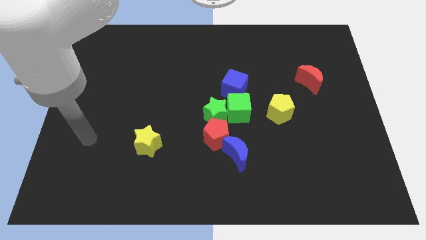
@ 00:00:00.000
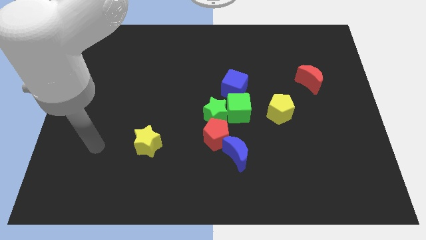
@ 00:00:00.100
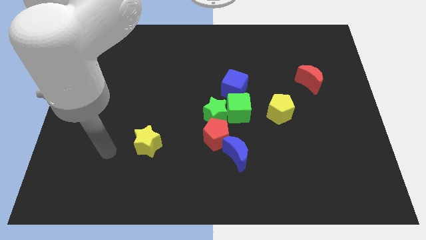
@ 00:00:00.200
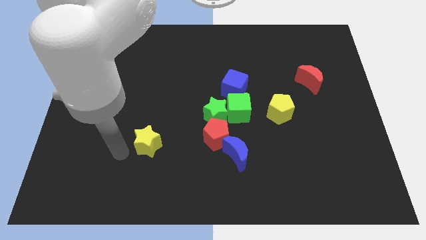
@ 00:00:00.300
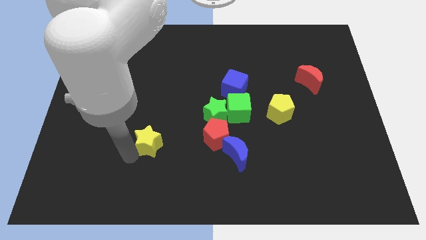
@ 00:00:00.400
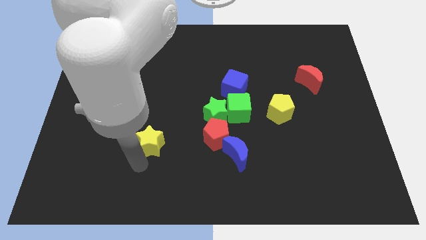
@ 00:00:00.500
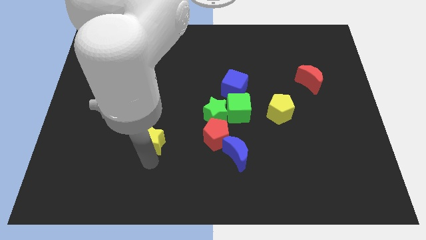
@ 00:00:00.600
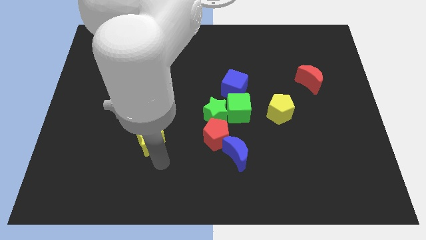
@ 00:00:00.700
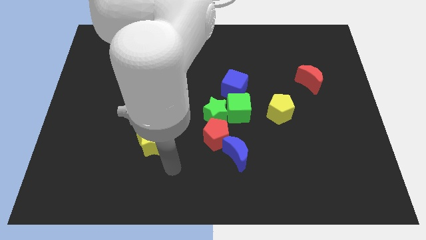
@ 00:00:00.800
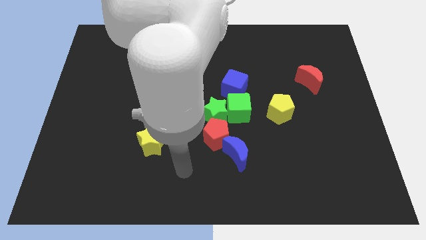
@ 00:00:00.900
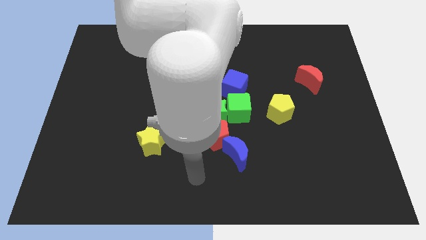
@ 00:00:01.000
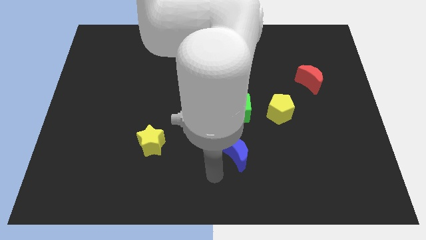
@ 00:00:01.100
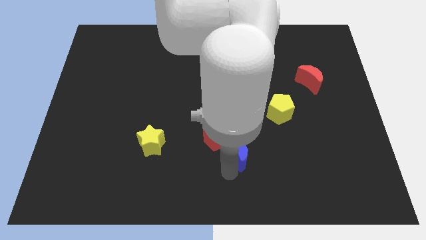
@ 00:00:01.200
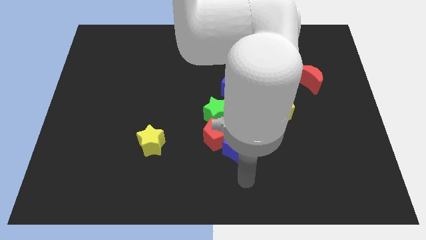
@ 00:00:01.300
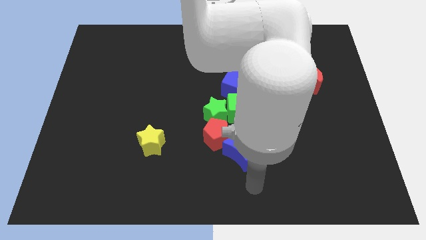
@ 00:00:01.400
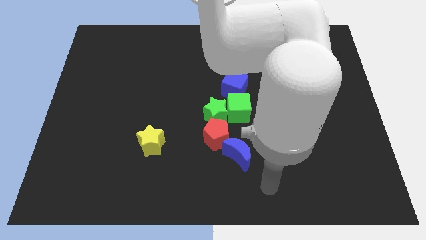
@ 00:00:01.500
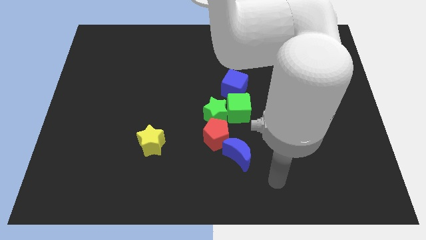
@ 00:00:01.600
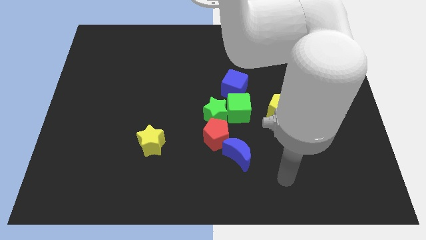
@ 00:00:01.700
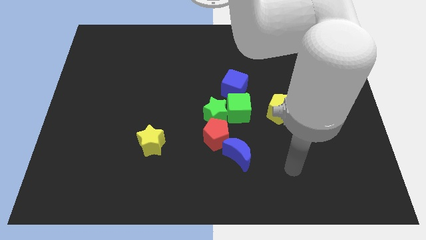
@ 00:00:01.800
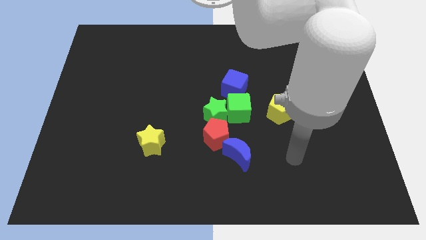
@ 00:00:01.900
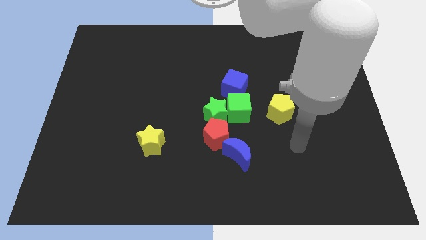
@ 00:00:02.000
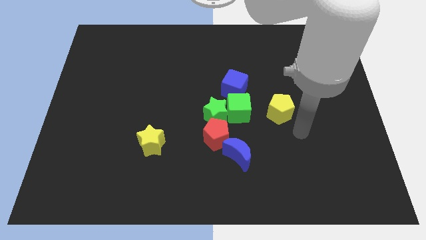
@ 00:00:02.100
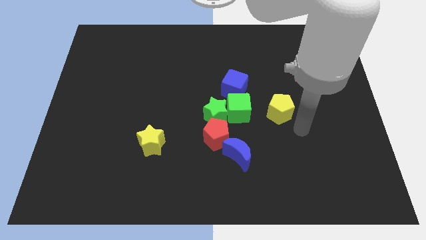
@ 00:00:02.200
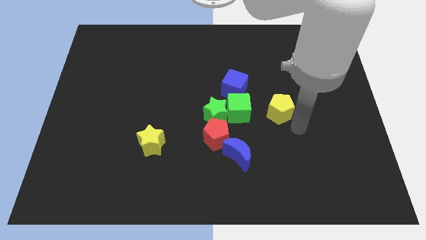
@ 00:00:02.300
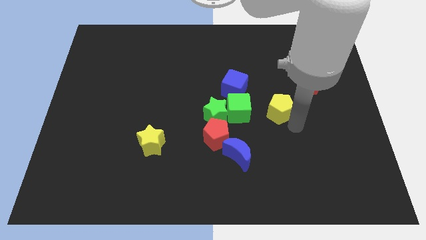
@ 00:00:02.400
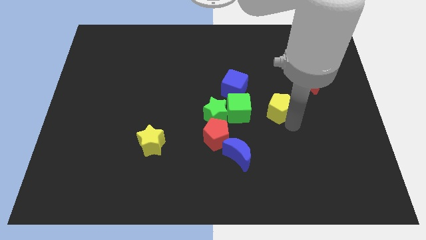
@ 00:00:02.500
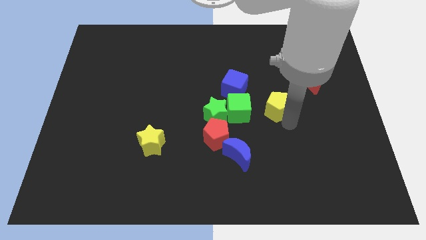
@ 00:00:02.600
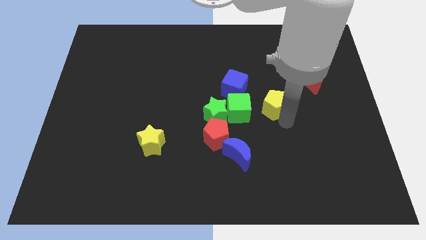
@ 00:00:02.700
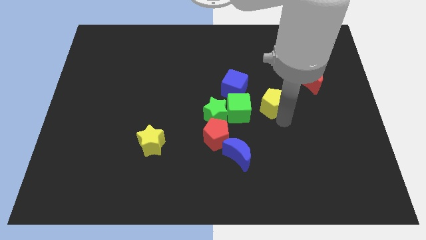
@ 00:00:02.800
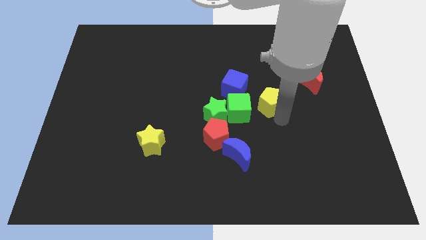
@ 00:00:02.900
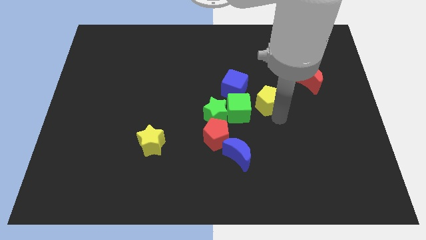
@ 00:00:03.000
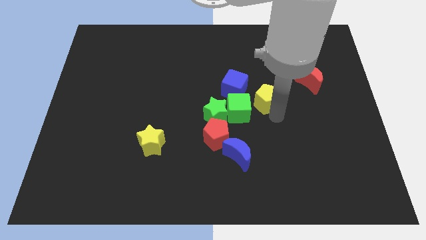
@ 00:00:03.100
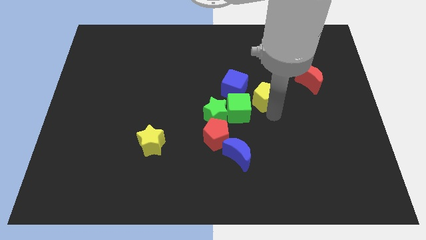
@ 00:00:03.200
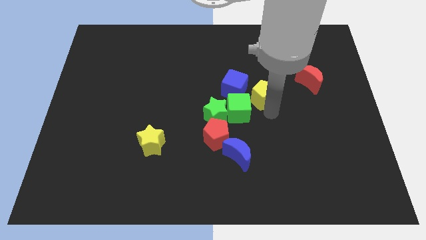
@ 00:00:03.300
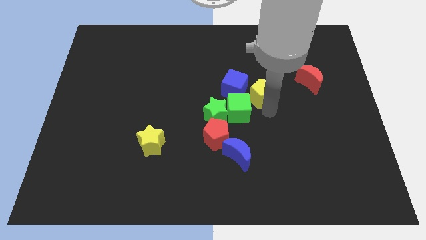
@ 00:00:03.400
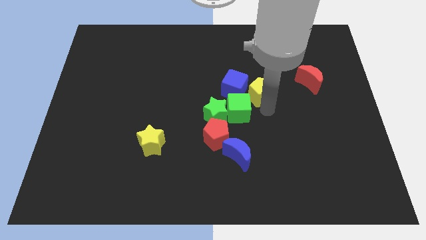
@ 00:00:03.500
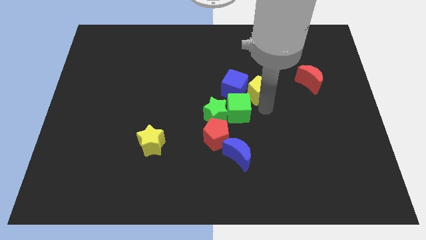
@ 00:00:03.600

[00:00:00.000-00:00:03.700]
slightly move the yellow pentagon up and left diagonally

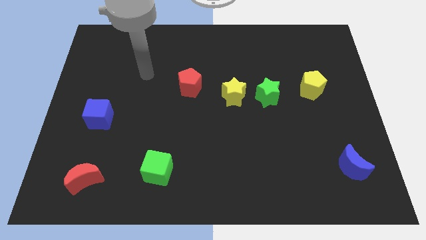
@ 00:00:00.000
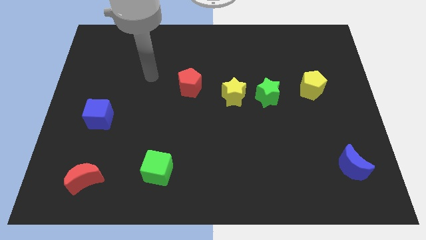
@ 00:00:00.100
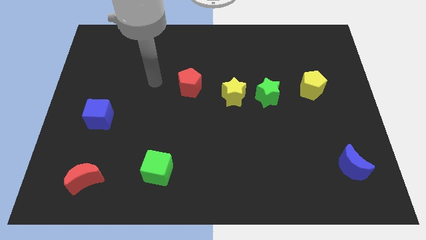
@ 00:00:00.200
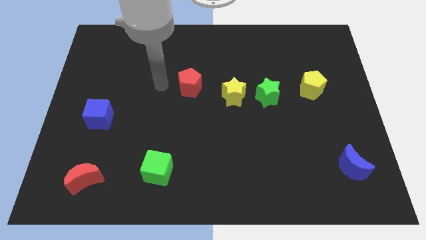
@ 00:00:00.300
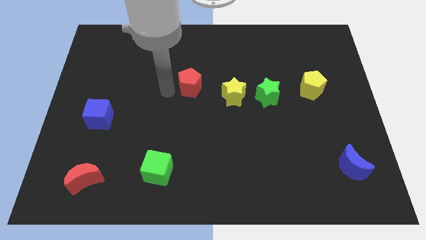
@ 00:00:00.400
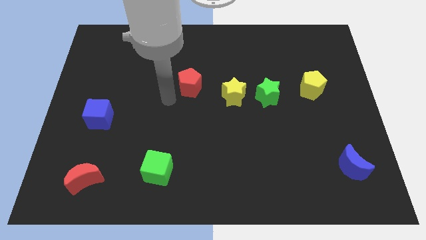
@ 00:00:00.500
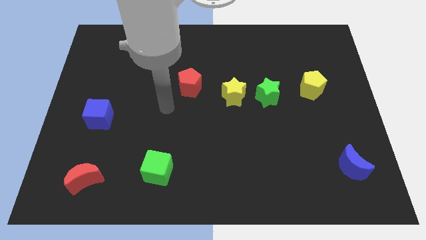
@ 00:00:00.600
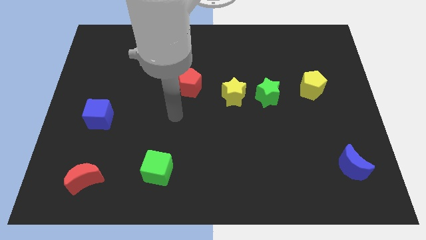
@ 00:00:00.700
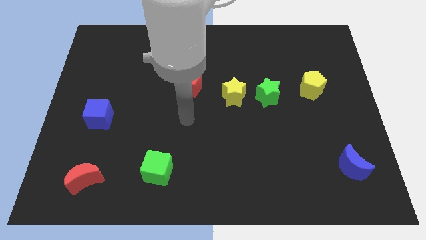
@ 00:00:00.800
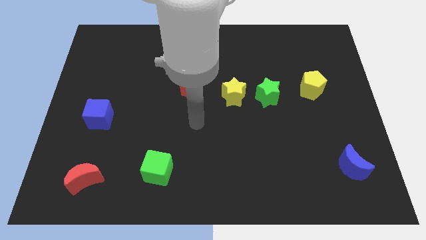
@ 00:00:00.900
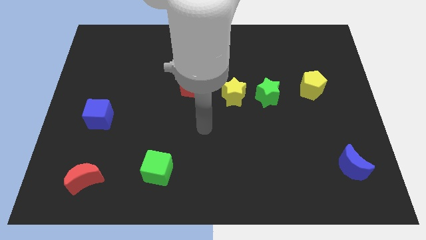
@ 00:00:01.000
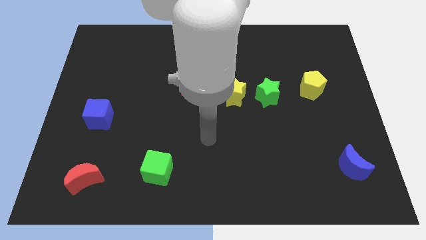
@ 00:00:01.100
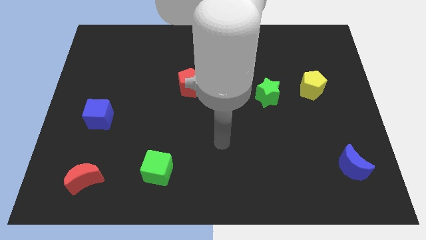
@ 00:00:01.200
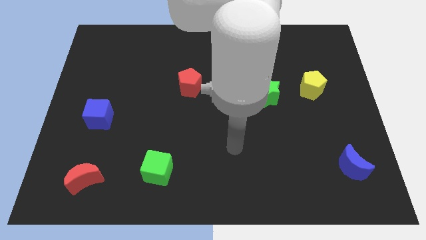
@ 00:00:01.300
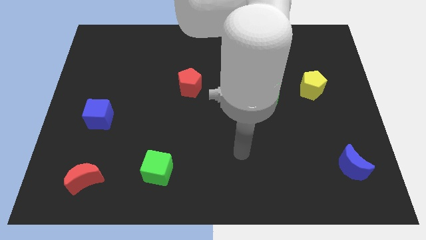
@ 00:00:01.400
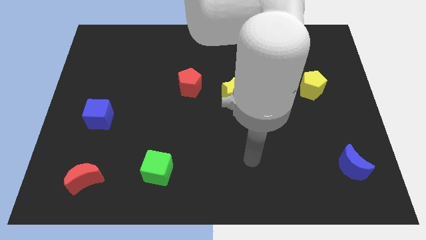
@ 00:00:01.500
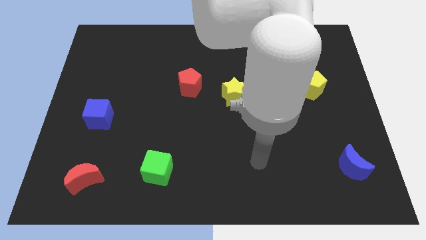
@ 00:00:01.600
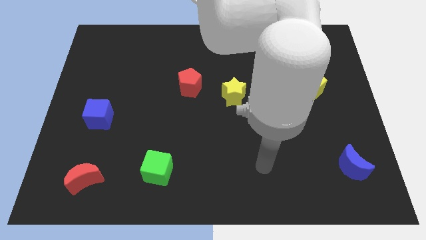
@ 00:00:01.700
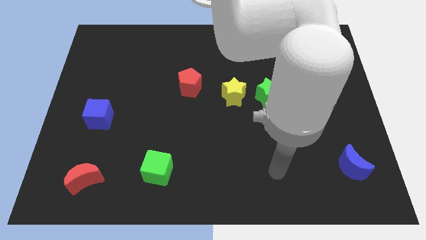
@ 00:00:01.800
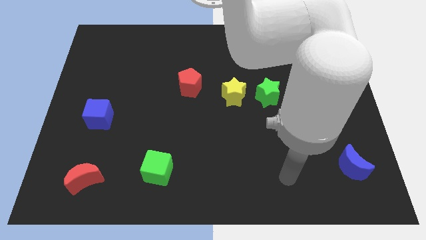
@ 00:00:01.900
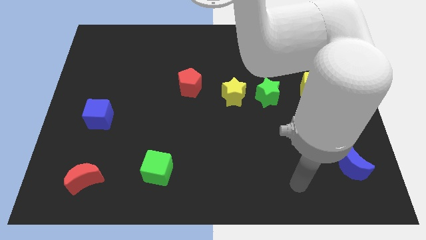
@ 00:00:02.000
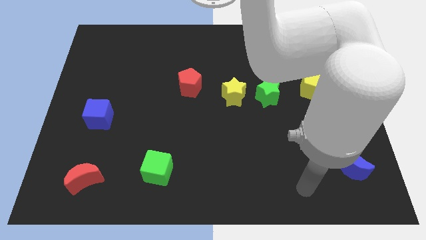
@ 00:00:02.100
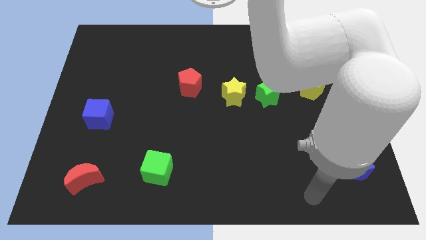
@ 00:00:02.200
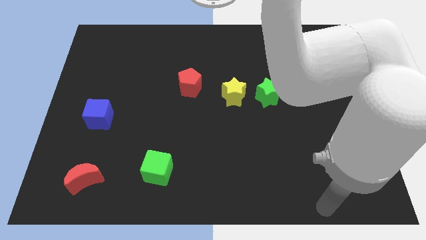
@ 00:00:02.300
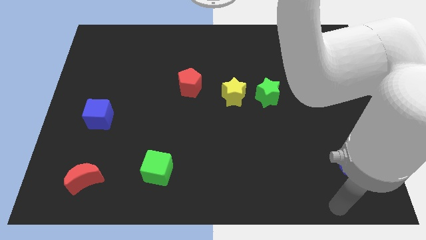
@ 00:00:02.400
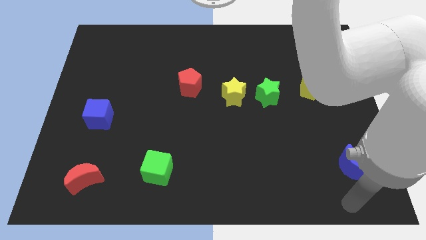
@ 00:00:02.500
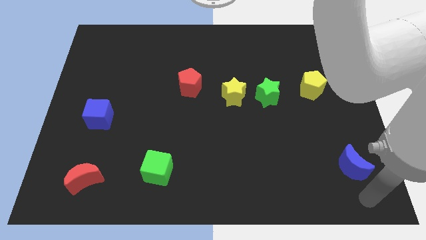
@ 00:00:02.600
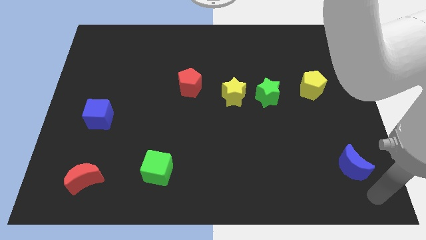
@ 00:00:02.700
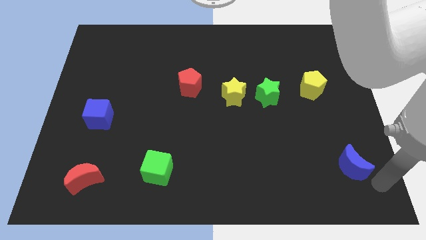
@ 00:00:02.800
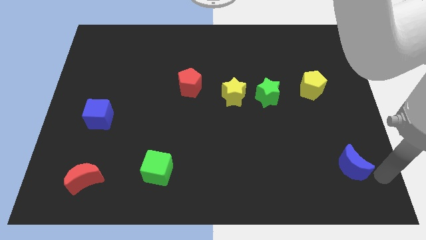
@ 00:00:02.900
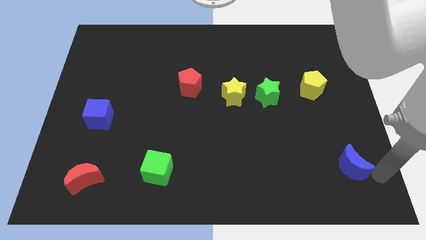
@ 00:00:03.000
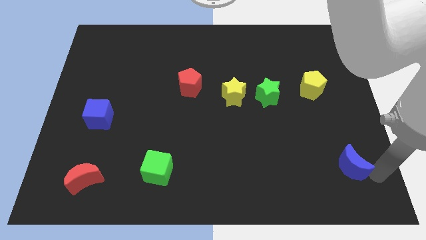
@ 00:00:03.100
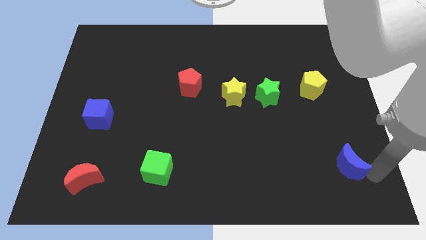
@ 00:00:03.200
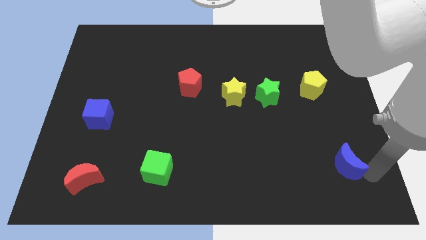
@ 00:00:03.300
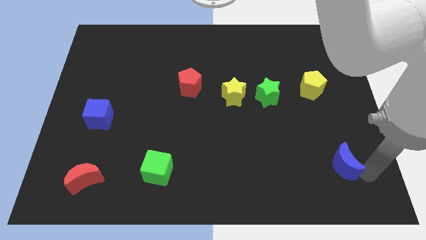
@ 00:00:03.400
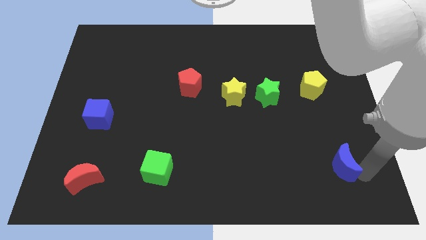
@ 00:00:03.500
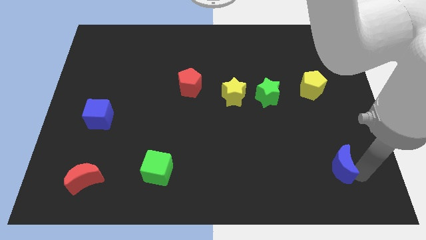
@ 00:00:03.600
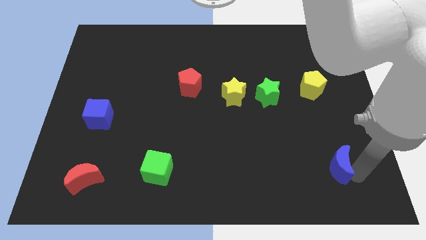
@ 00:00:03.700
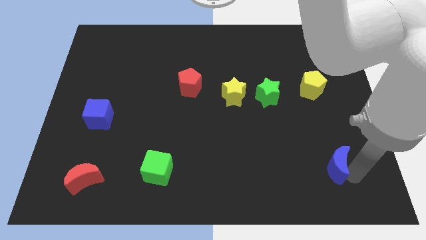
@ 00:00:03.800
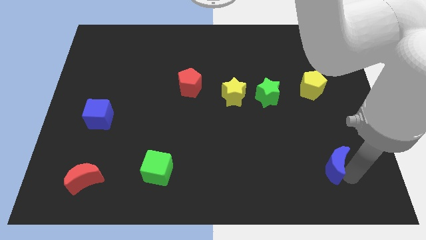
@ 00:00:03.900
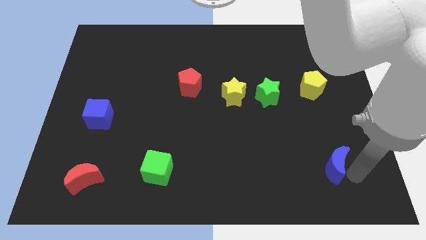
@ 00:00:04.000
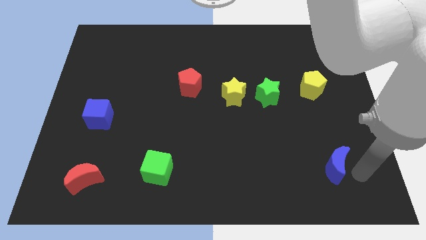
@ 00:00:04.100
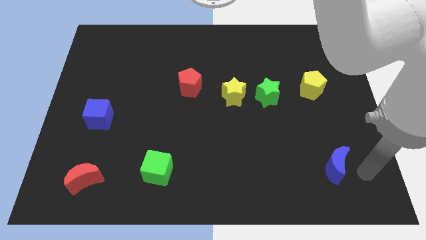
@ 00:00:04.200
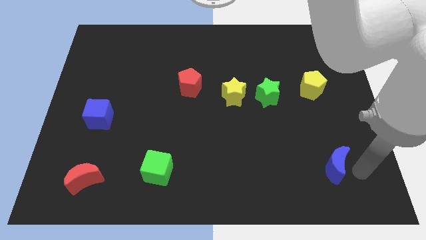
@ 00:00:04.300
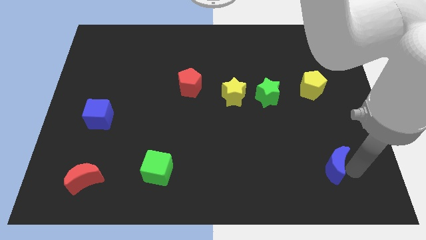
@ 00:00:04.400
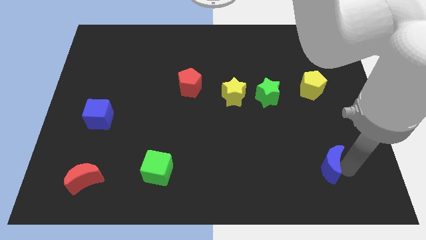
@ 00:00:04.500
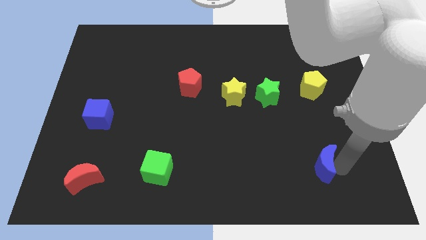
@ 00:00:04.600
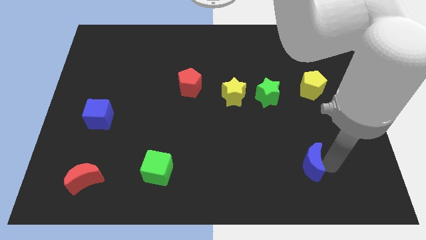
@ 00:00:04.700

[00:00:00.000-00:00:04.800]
move the blue moon left a little
